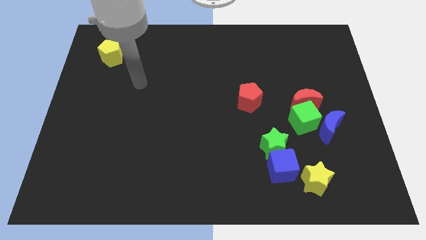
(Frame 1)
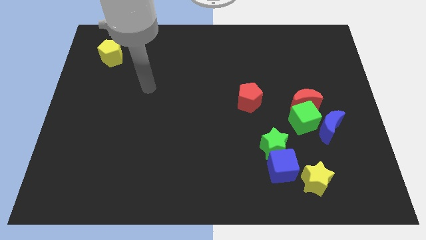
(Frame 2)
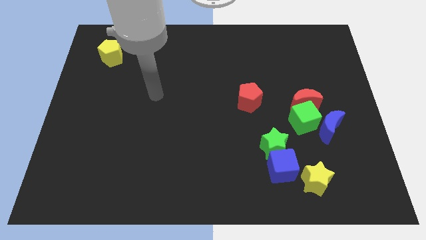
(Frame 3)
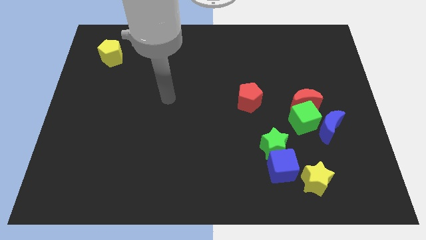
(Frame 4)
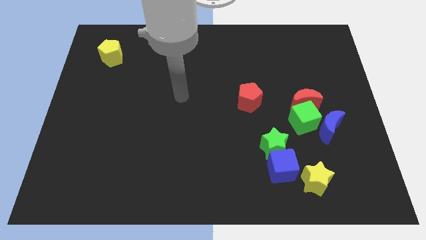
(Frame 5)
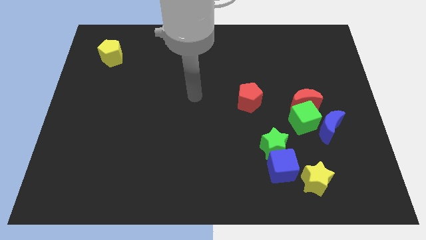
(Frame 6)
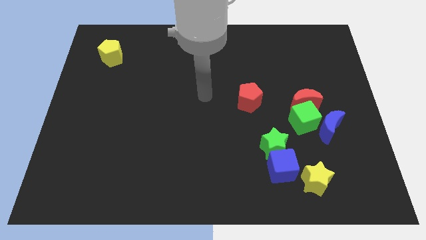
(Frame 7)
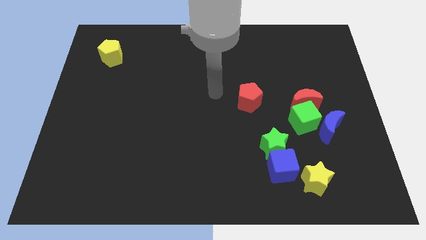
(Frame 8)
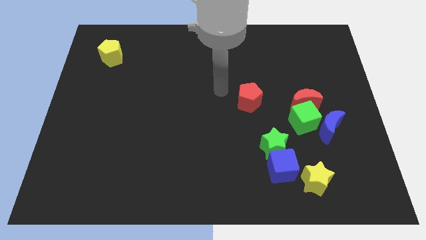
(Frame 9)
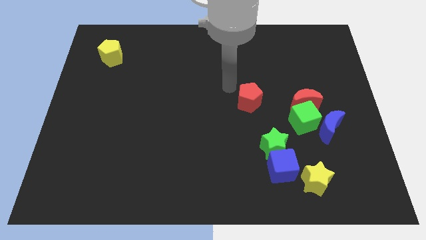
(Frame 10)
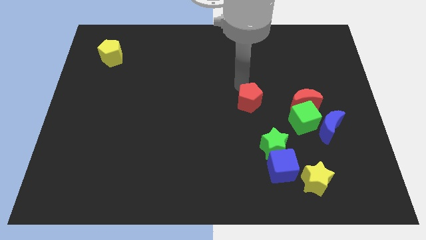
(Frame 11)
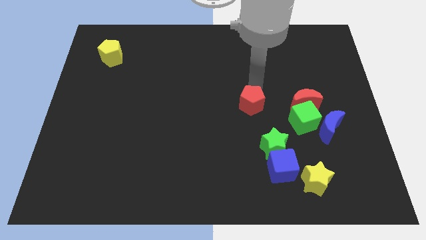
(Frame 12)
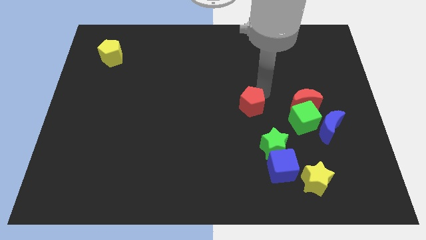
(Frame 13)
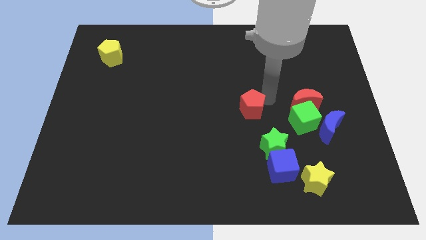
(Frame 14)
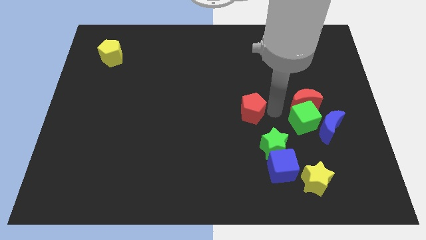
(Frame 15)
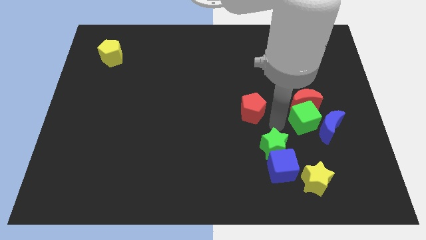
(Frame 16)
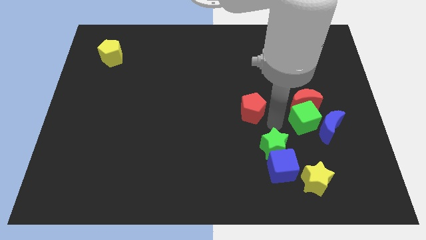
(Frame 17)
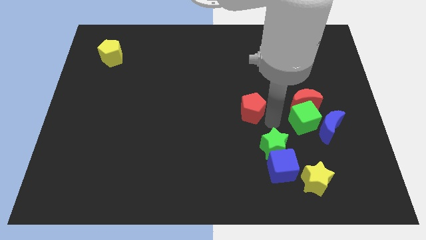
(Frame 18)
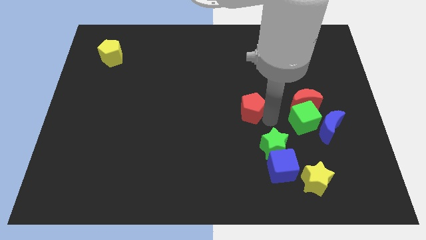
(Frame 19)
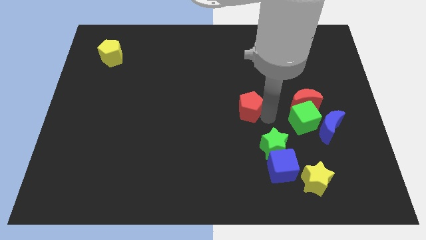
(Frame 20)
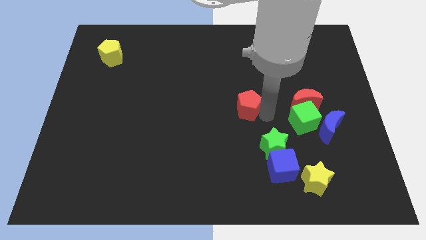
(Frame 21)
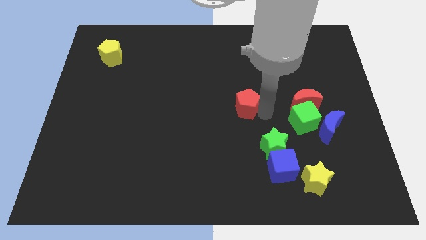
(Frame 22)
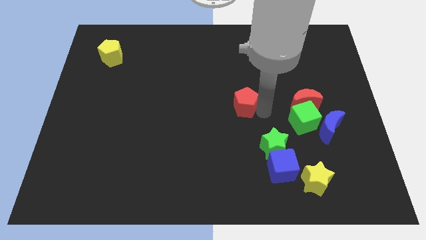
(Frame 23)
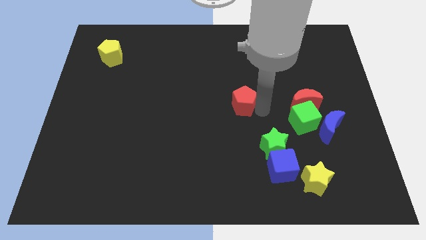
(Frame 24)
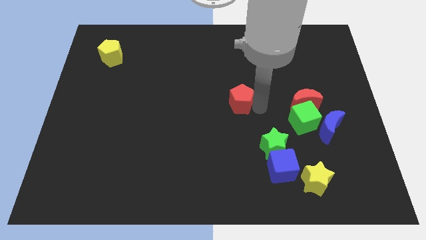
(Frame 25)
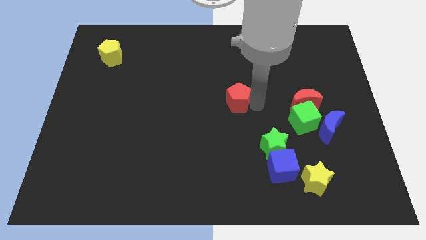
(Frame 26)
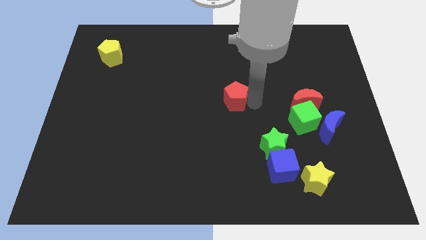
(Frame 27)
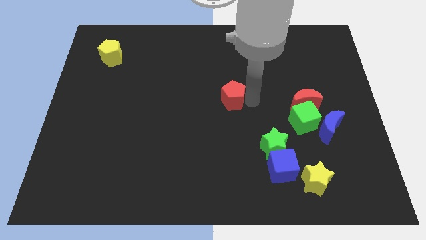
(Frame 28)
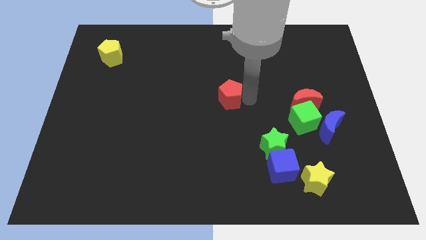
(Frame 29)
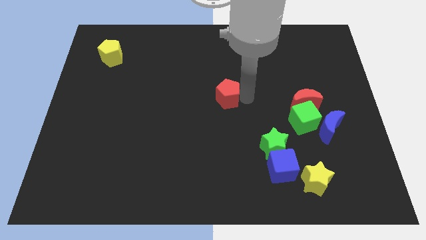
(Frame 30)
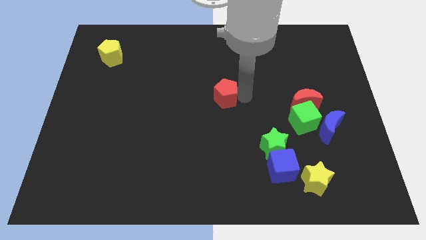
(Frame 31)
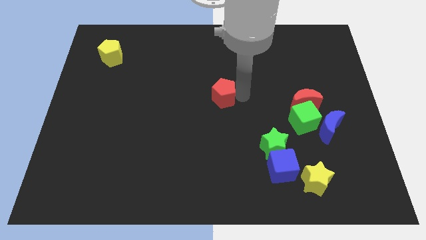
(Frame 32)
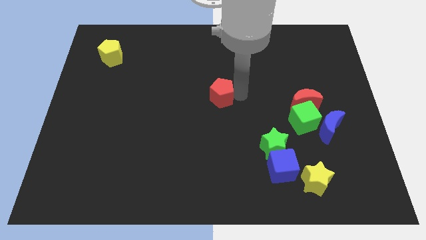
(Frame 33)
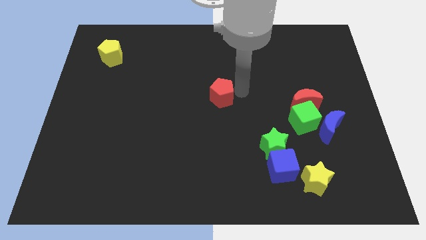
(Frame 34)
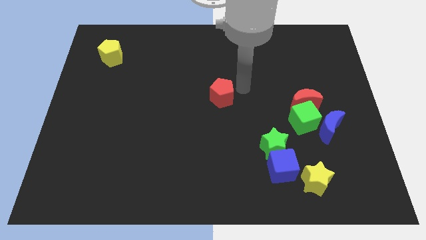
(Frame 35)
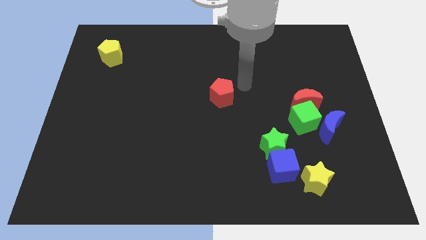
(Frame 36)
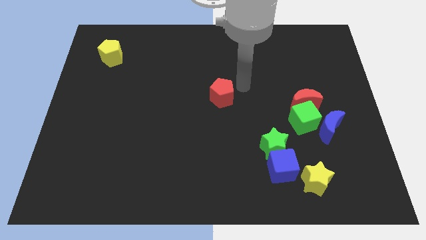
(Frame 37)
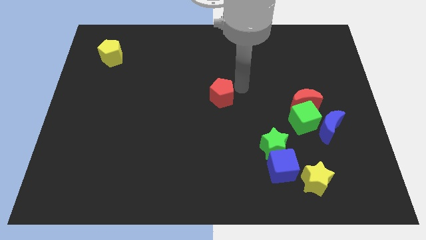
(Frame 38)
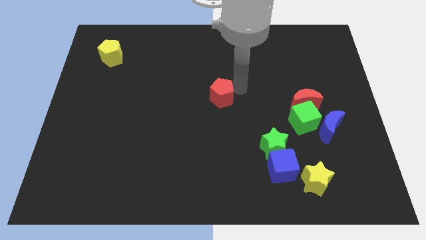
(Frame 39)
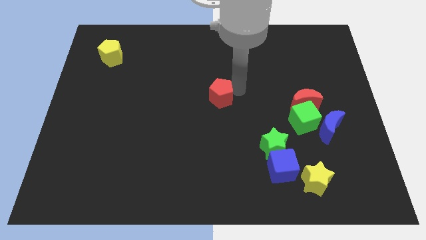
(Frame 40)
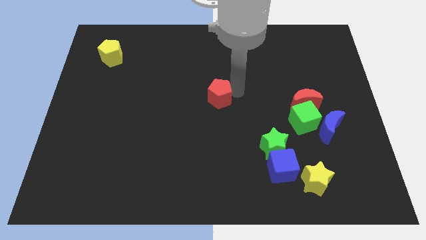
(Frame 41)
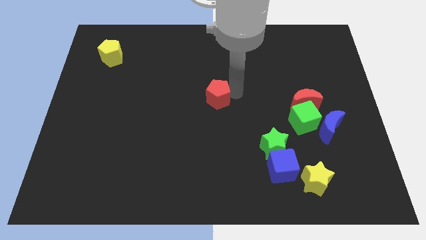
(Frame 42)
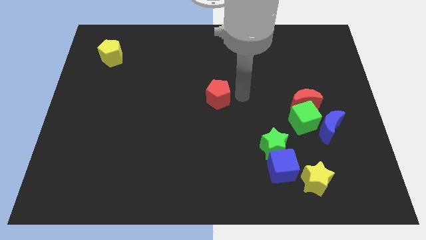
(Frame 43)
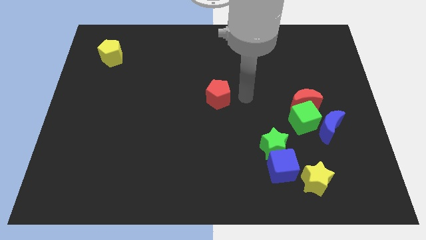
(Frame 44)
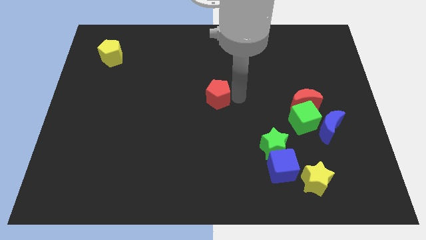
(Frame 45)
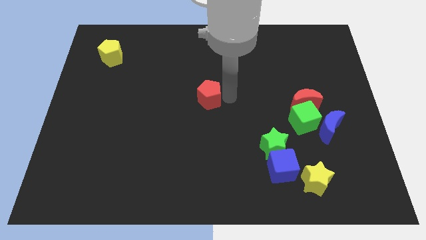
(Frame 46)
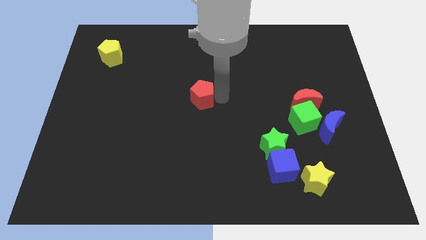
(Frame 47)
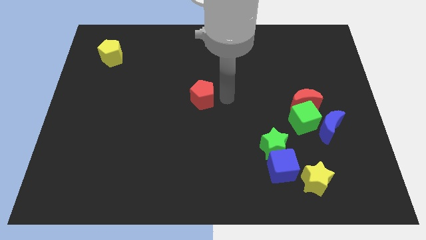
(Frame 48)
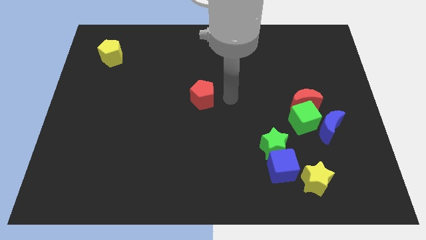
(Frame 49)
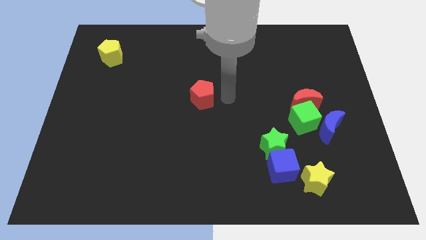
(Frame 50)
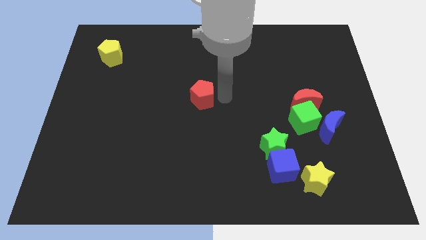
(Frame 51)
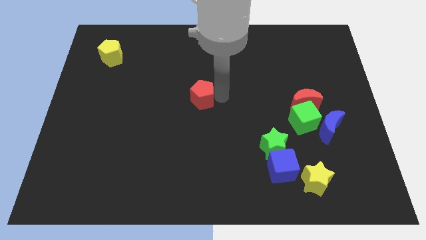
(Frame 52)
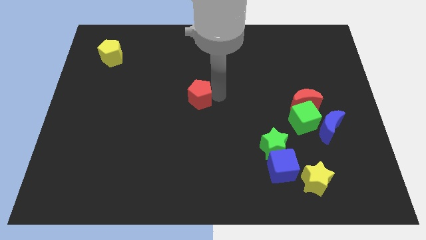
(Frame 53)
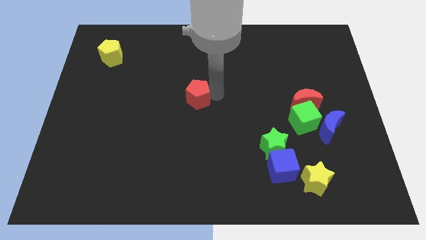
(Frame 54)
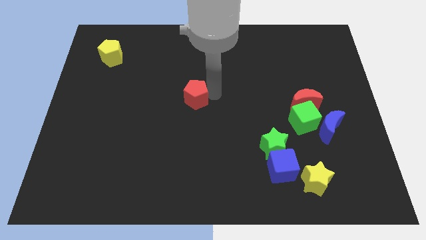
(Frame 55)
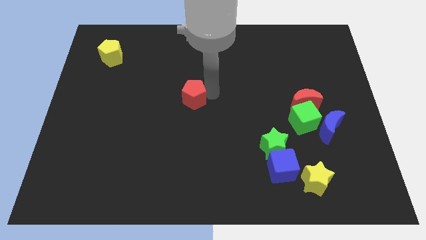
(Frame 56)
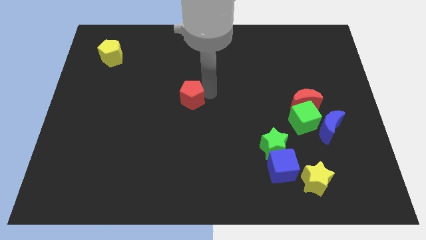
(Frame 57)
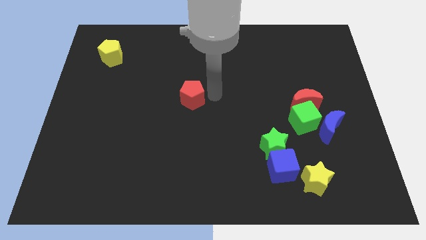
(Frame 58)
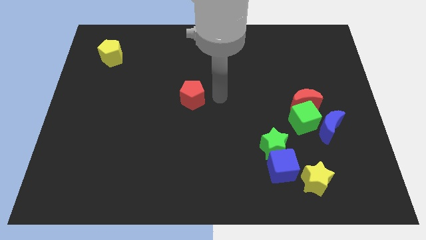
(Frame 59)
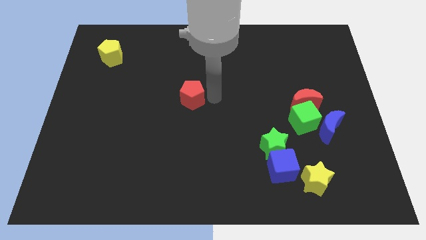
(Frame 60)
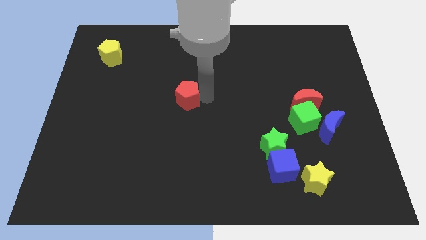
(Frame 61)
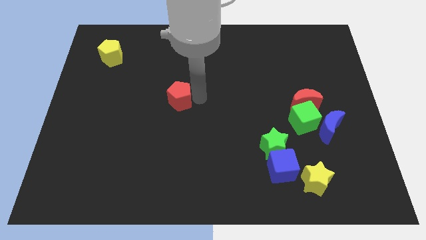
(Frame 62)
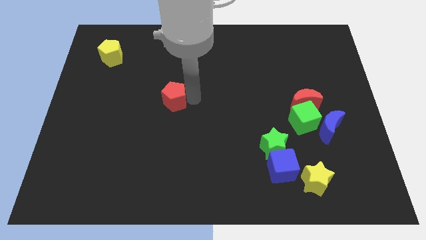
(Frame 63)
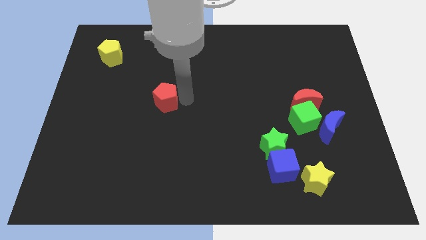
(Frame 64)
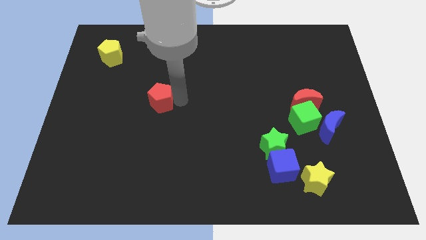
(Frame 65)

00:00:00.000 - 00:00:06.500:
push the red pentagon left

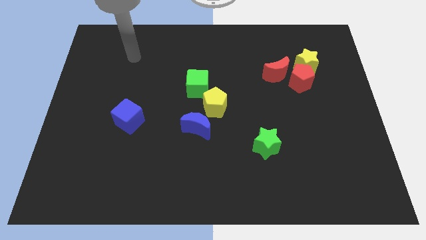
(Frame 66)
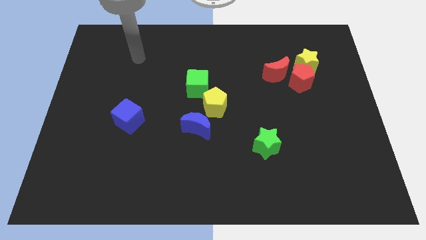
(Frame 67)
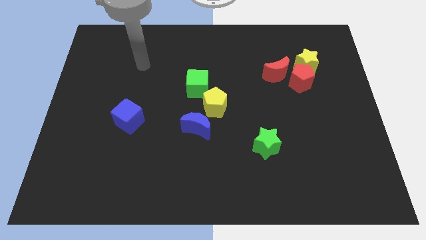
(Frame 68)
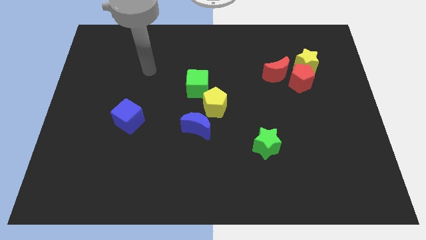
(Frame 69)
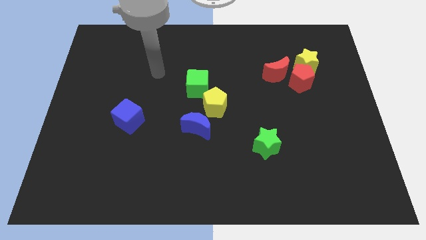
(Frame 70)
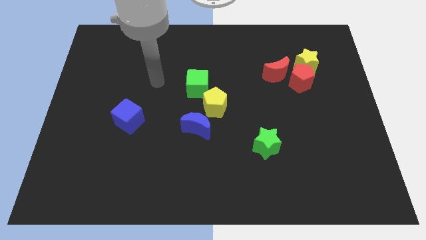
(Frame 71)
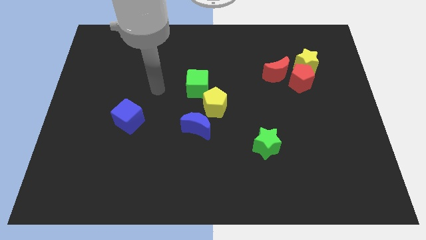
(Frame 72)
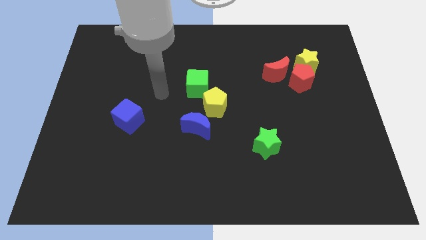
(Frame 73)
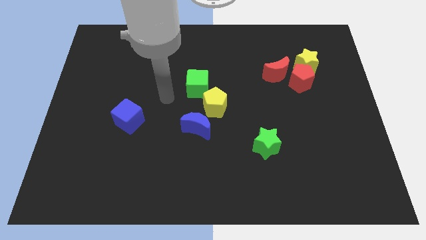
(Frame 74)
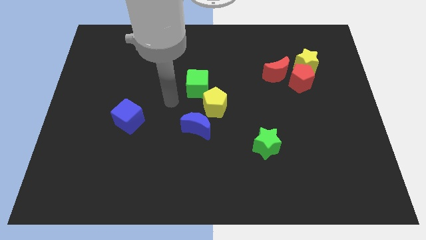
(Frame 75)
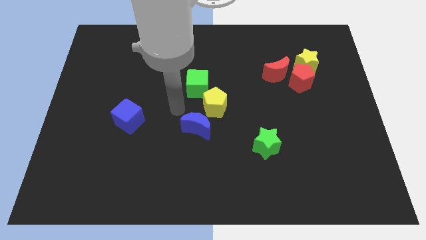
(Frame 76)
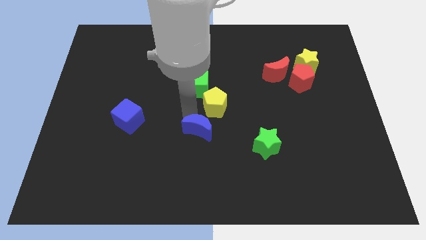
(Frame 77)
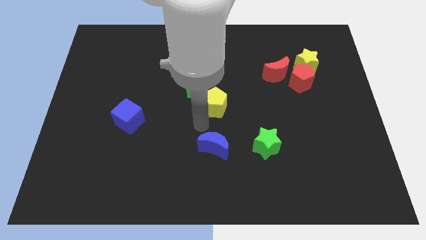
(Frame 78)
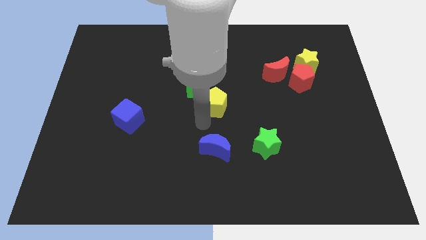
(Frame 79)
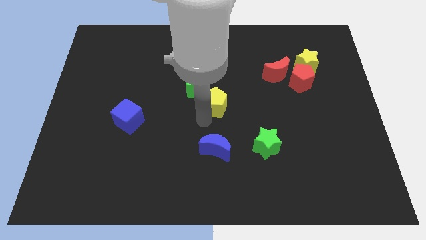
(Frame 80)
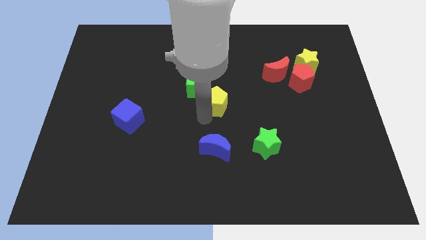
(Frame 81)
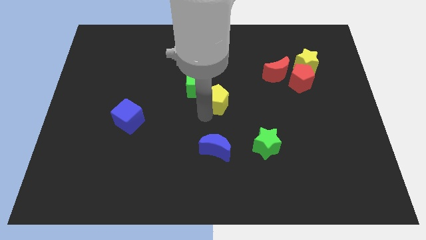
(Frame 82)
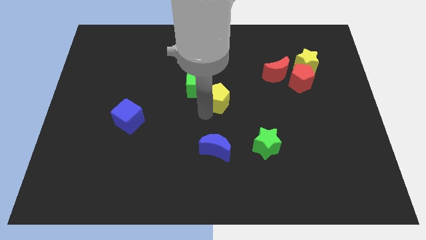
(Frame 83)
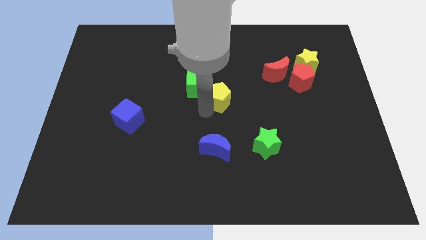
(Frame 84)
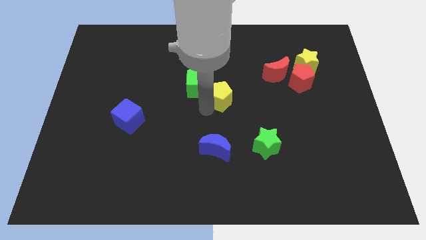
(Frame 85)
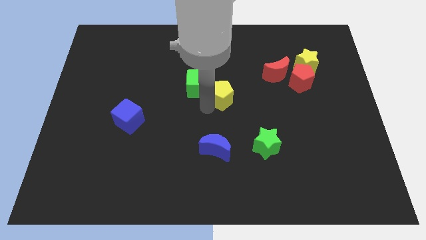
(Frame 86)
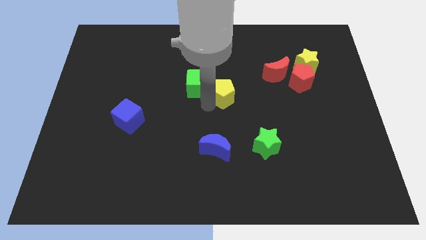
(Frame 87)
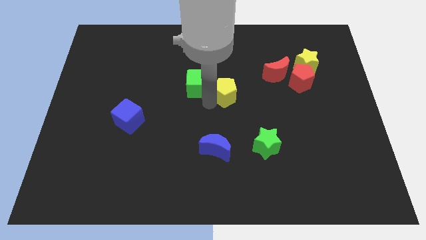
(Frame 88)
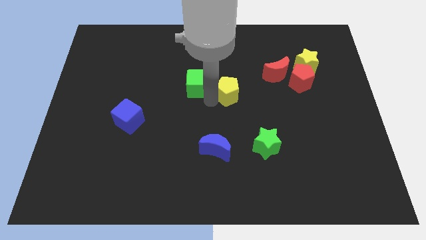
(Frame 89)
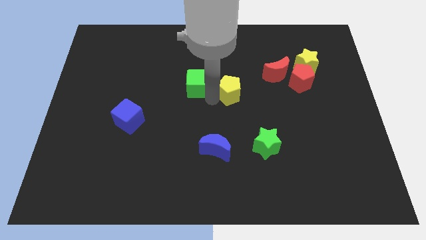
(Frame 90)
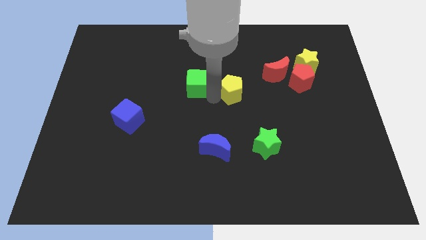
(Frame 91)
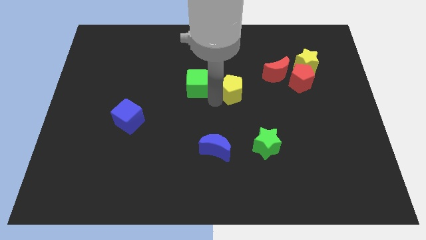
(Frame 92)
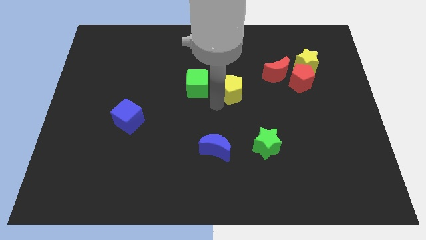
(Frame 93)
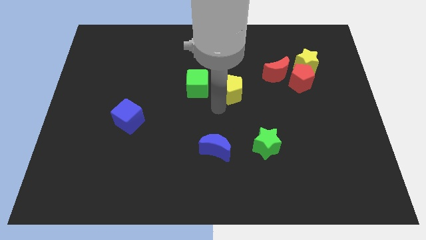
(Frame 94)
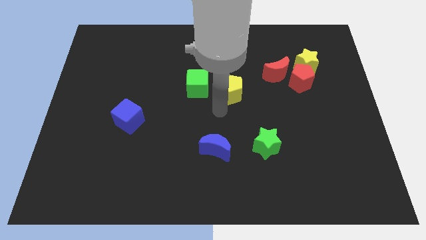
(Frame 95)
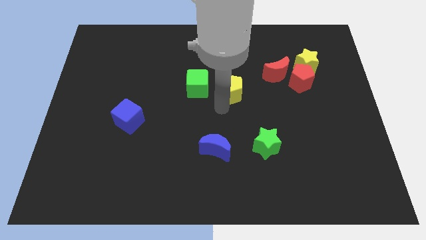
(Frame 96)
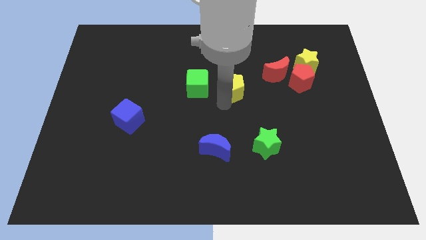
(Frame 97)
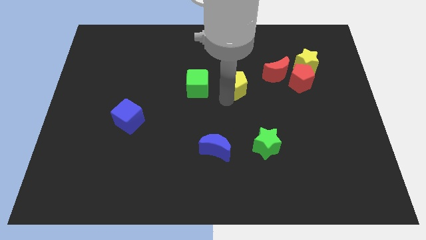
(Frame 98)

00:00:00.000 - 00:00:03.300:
slide the yellow pentagon upwards and right diagonally a little bit
